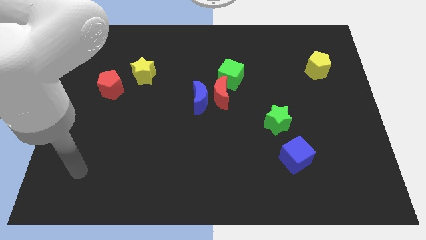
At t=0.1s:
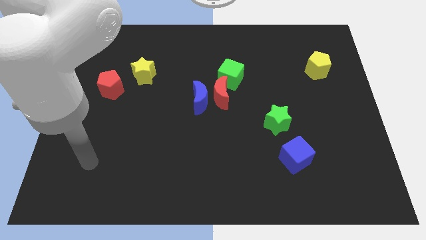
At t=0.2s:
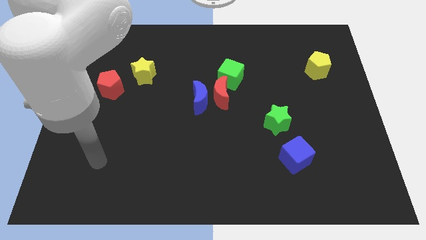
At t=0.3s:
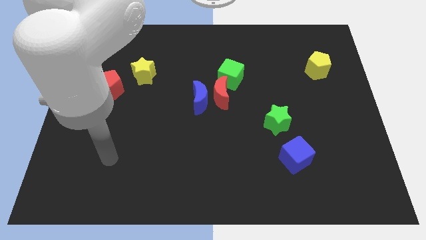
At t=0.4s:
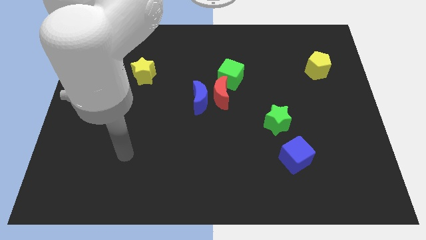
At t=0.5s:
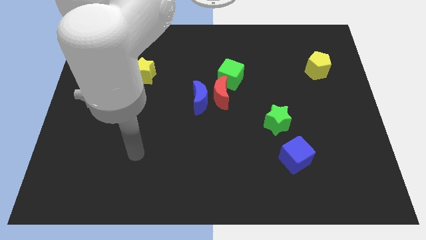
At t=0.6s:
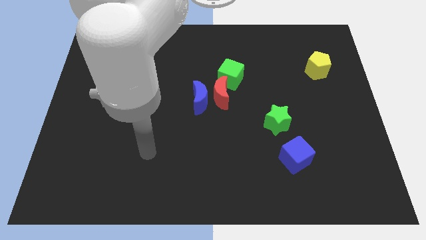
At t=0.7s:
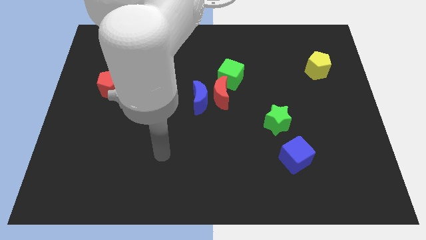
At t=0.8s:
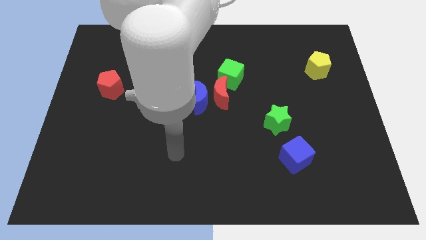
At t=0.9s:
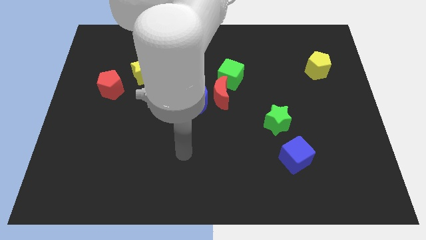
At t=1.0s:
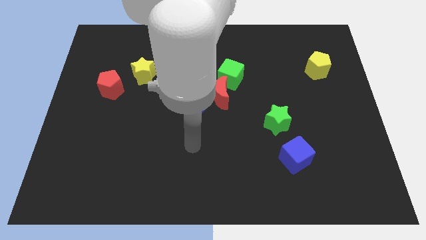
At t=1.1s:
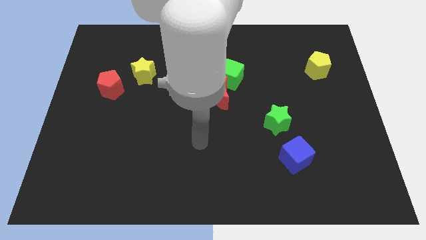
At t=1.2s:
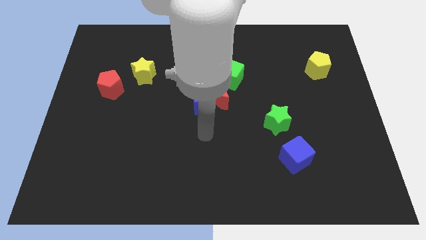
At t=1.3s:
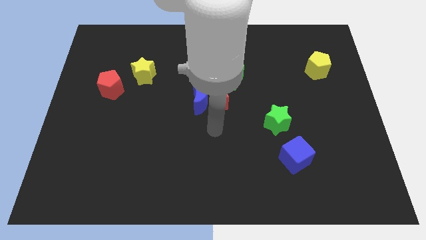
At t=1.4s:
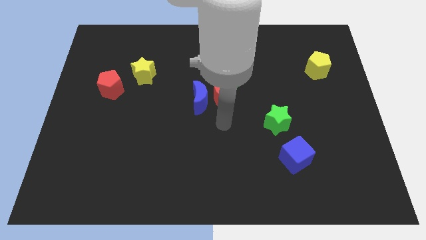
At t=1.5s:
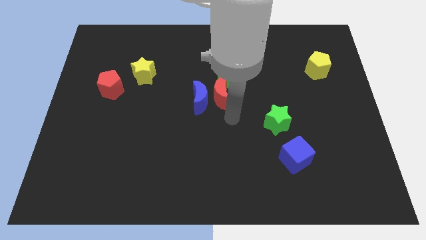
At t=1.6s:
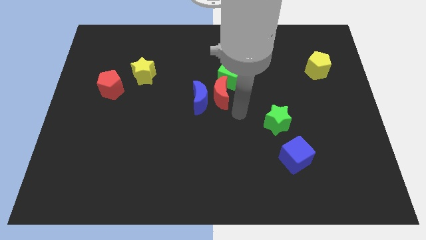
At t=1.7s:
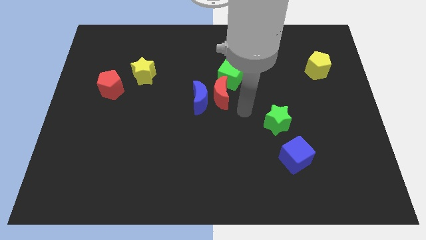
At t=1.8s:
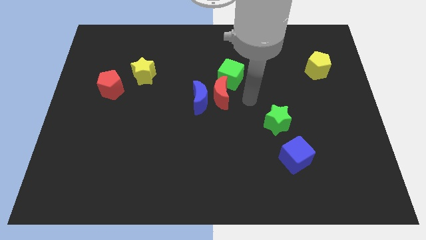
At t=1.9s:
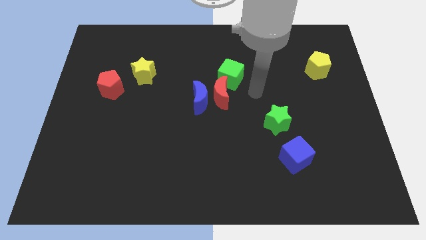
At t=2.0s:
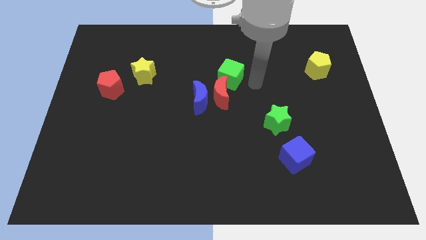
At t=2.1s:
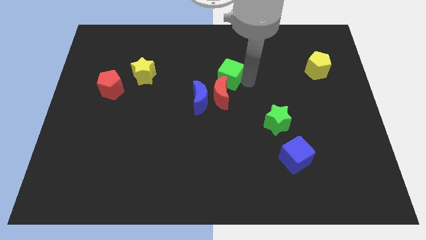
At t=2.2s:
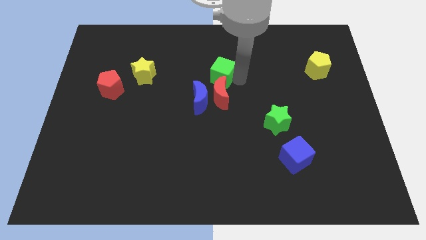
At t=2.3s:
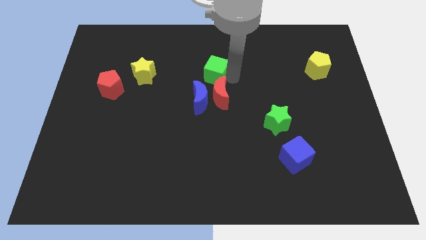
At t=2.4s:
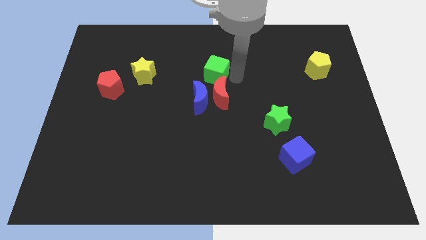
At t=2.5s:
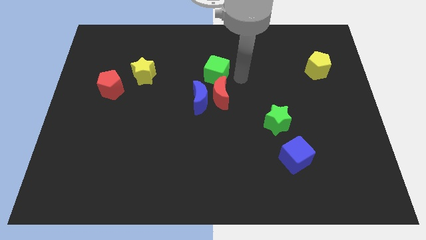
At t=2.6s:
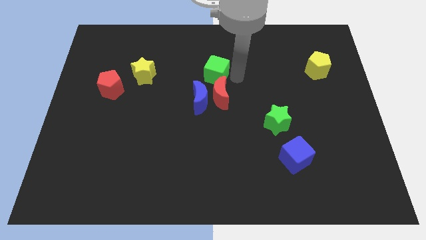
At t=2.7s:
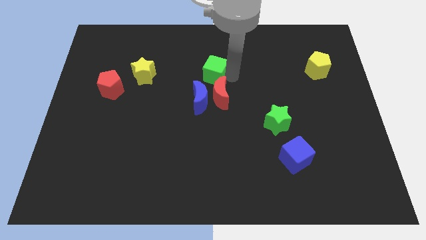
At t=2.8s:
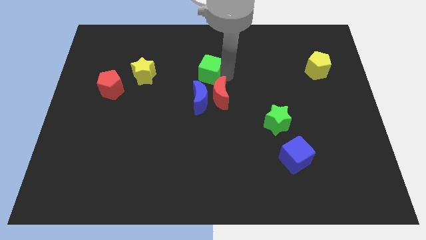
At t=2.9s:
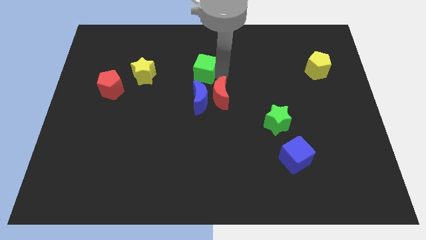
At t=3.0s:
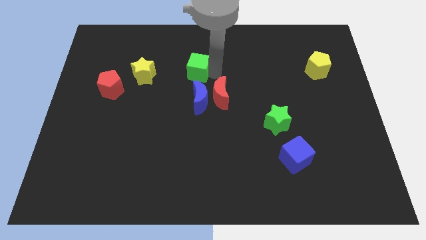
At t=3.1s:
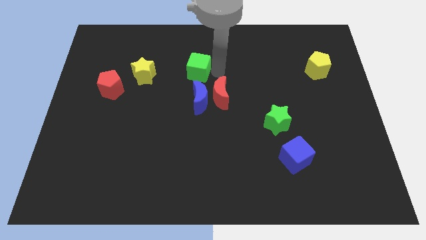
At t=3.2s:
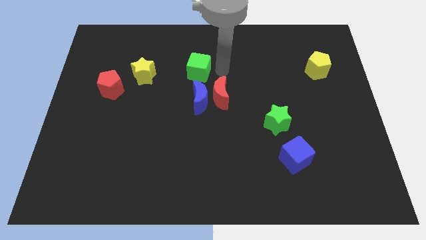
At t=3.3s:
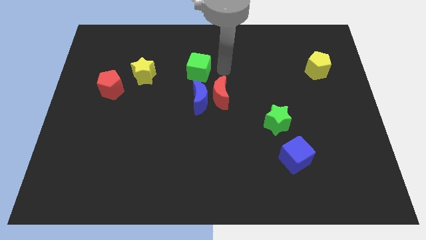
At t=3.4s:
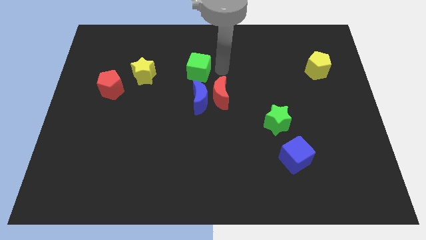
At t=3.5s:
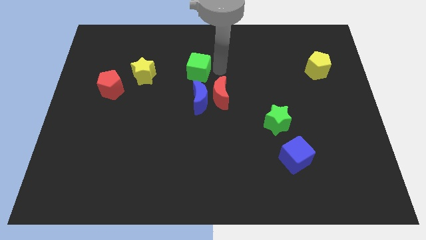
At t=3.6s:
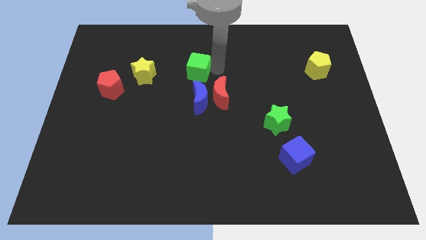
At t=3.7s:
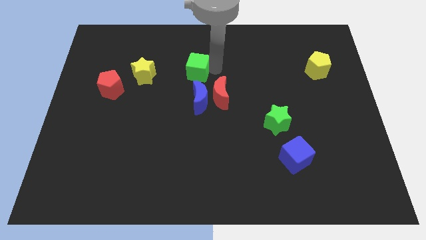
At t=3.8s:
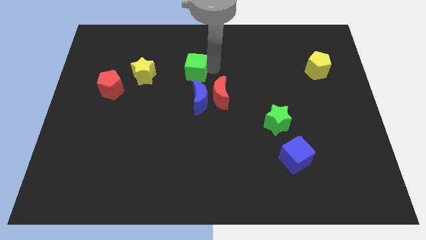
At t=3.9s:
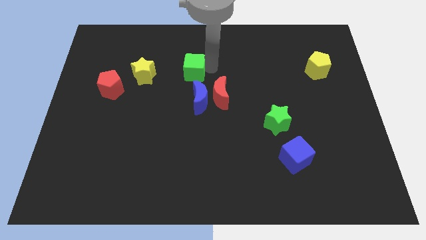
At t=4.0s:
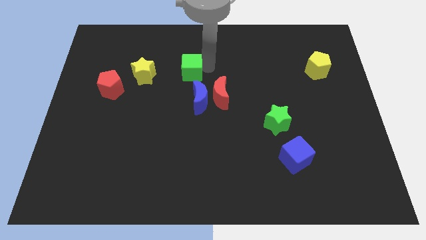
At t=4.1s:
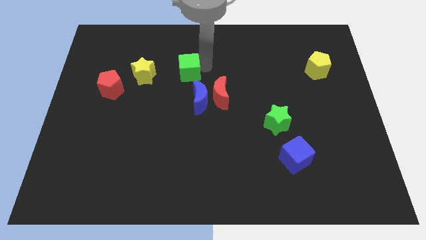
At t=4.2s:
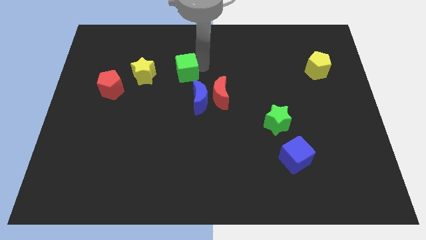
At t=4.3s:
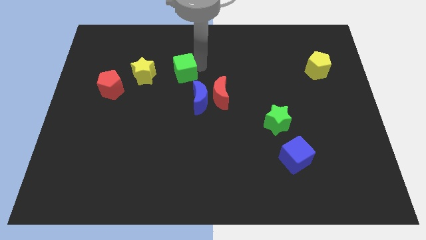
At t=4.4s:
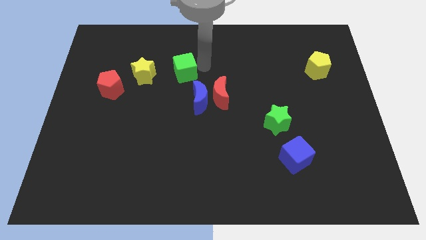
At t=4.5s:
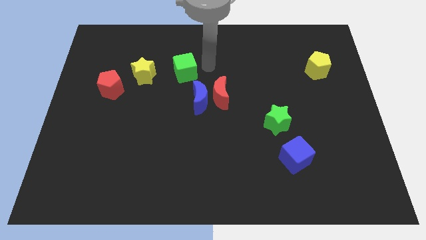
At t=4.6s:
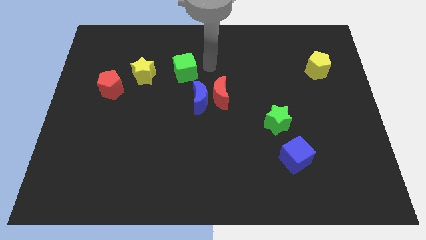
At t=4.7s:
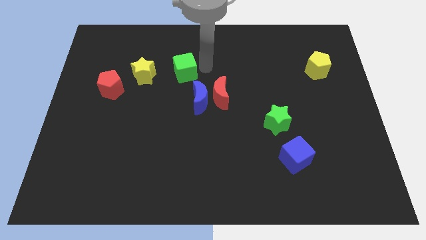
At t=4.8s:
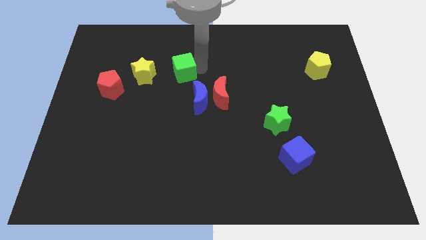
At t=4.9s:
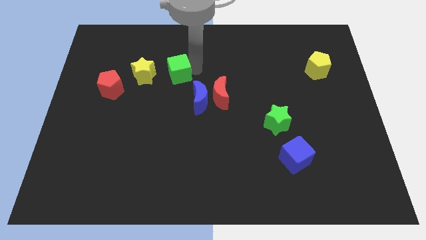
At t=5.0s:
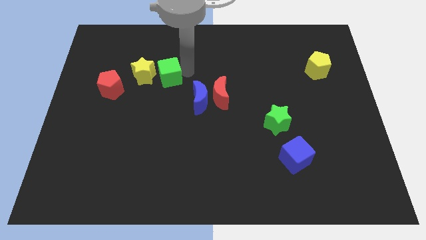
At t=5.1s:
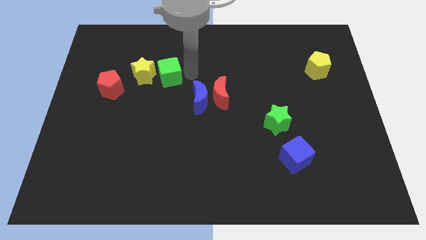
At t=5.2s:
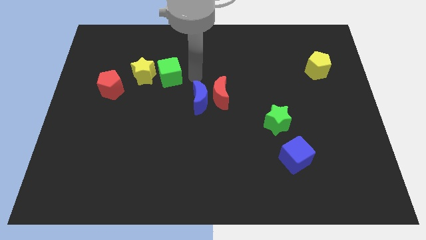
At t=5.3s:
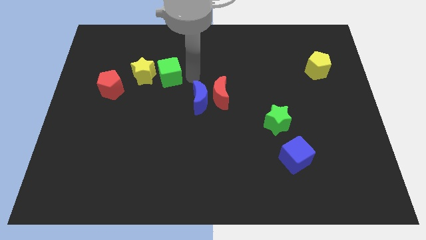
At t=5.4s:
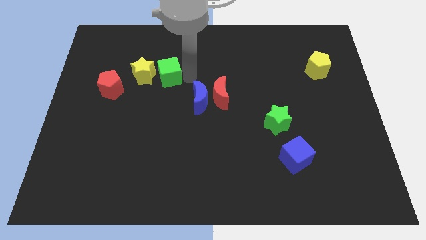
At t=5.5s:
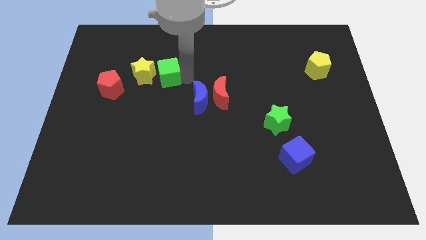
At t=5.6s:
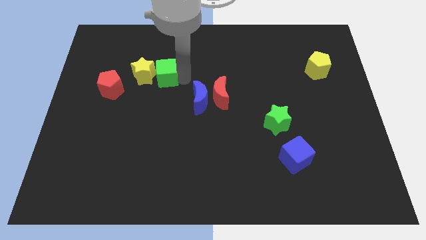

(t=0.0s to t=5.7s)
put the green cube close to the yellow star

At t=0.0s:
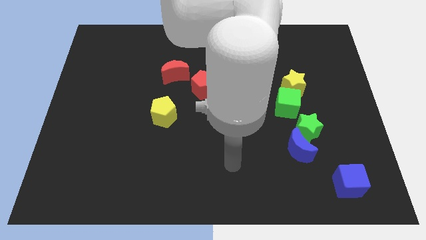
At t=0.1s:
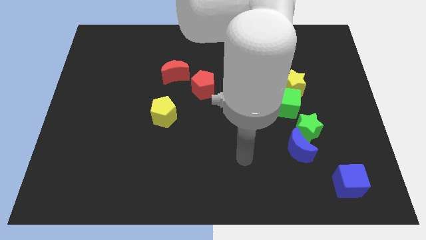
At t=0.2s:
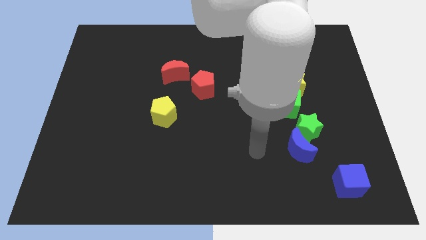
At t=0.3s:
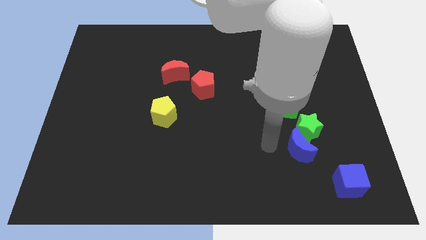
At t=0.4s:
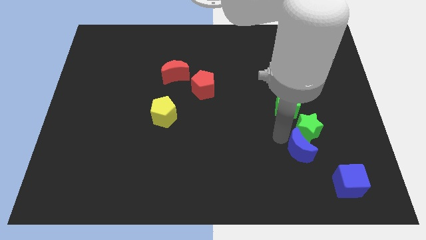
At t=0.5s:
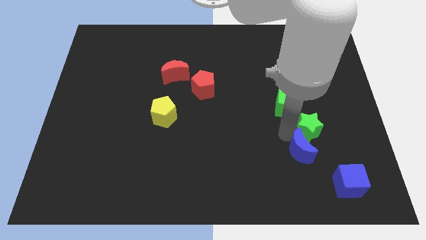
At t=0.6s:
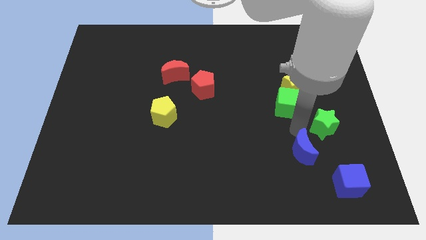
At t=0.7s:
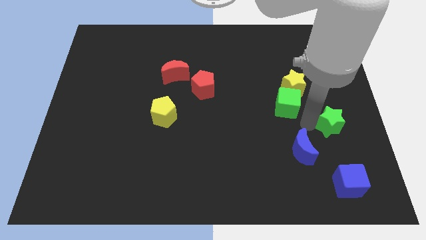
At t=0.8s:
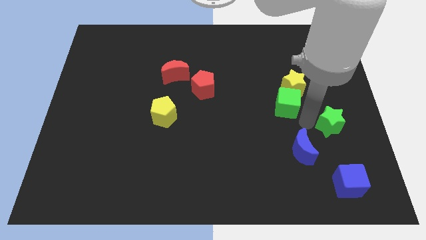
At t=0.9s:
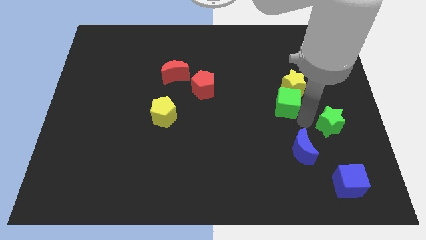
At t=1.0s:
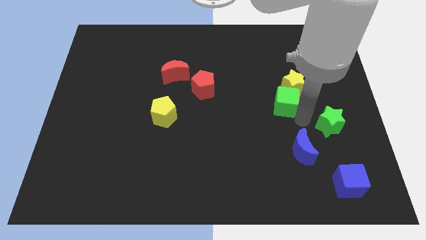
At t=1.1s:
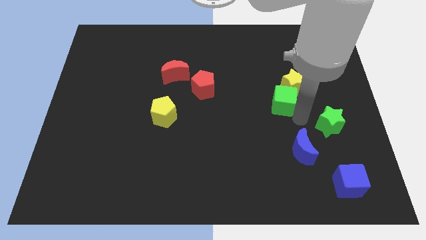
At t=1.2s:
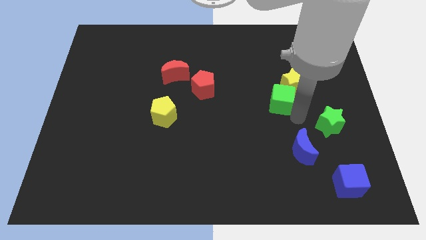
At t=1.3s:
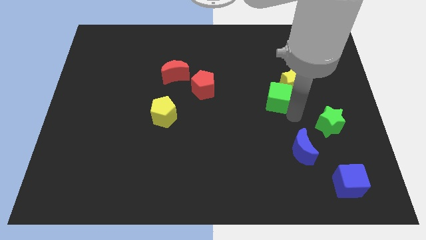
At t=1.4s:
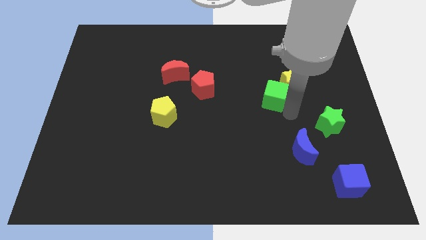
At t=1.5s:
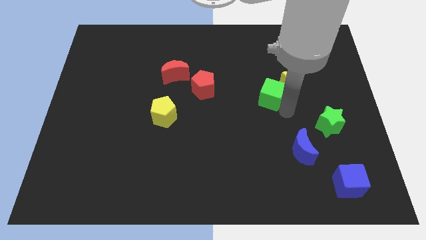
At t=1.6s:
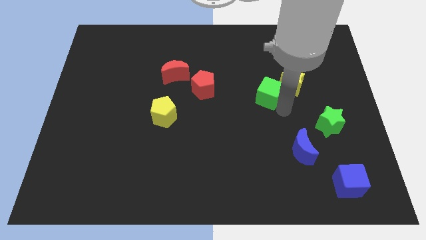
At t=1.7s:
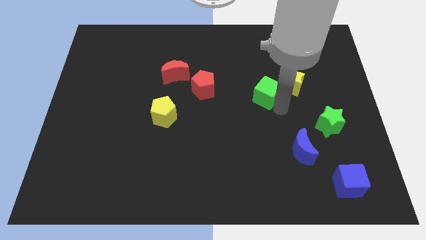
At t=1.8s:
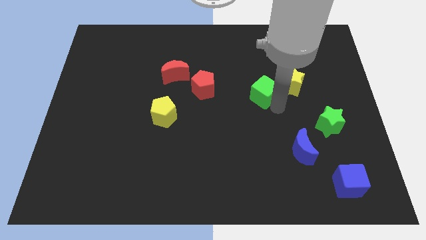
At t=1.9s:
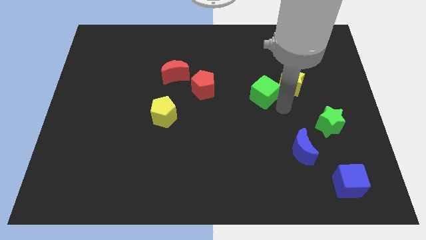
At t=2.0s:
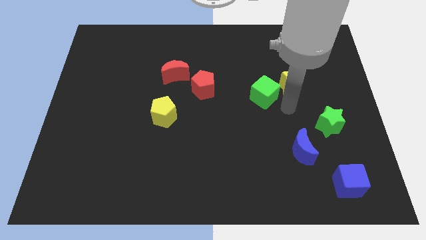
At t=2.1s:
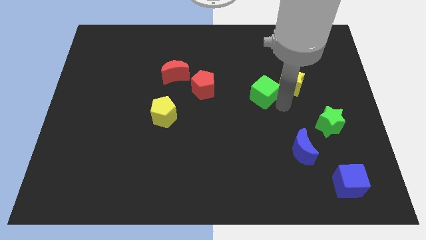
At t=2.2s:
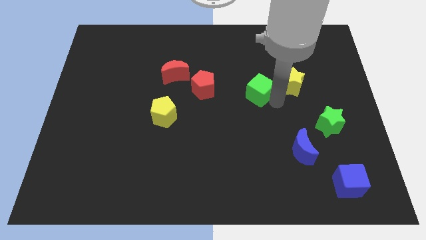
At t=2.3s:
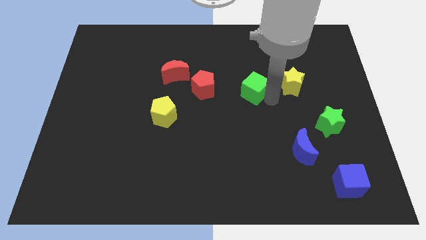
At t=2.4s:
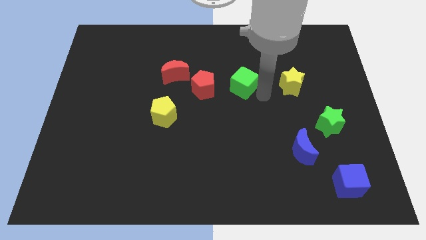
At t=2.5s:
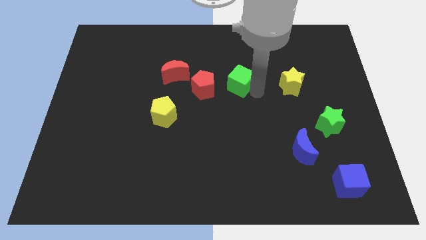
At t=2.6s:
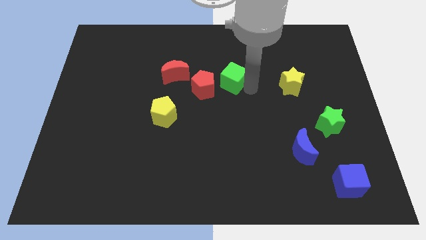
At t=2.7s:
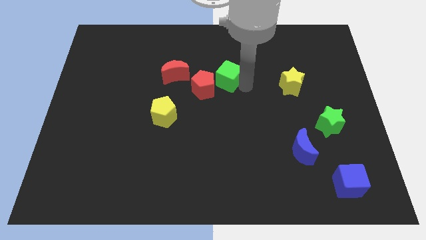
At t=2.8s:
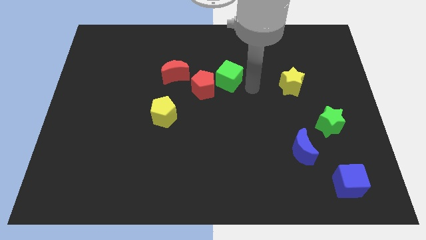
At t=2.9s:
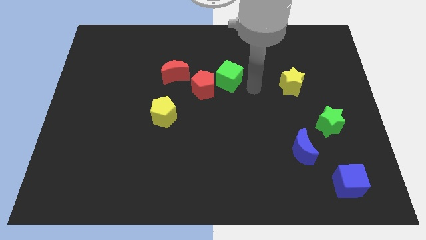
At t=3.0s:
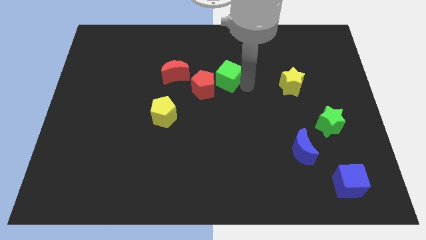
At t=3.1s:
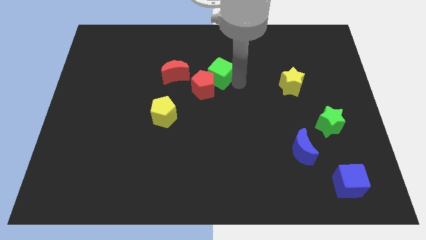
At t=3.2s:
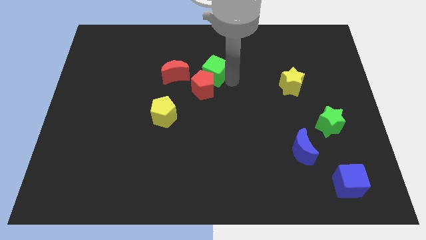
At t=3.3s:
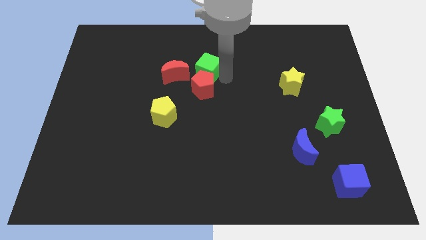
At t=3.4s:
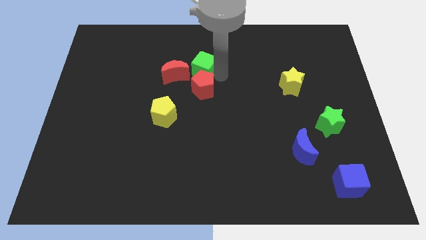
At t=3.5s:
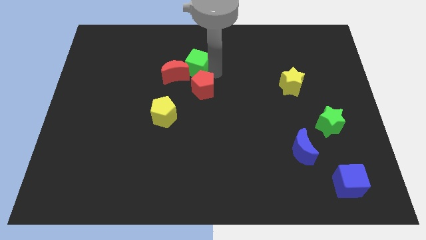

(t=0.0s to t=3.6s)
put the green cube to the red moon
